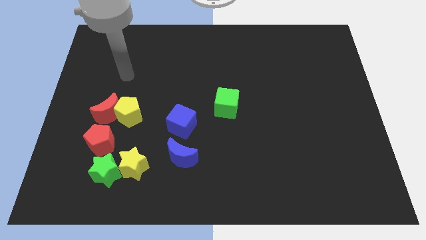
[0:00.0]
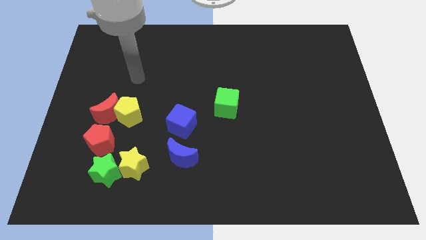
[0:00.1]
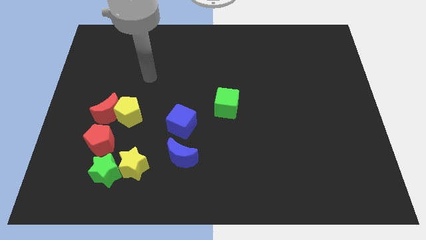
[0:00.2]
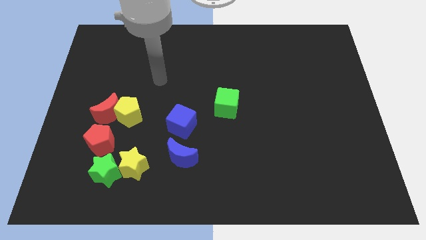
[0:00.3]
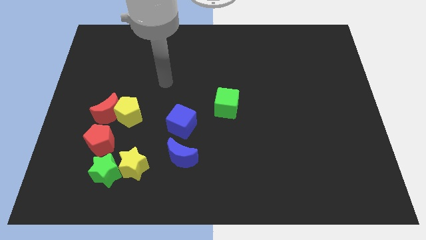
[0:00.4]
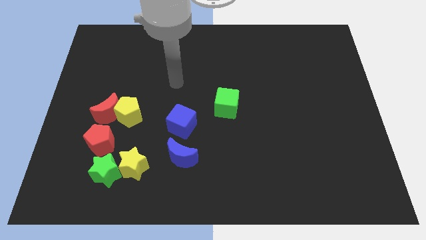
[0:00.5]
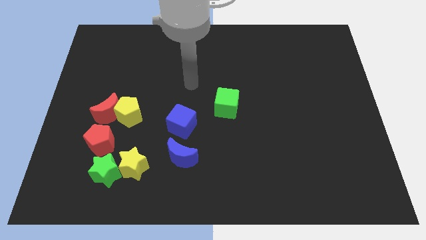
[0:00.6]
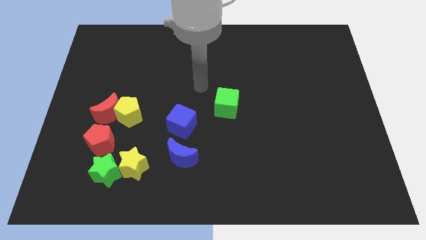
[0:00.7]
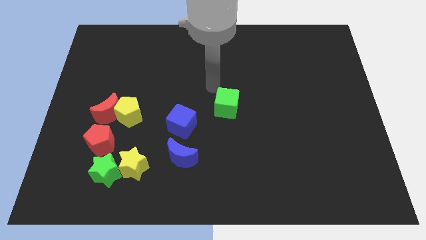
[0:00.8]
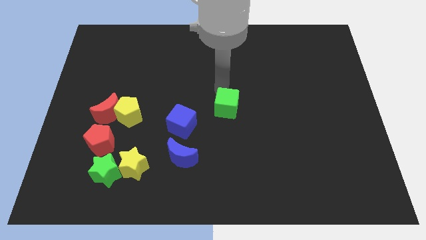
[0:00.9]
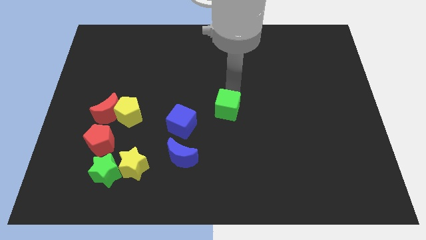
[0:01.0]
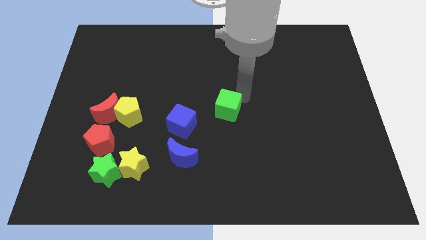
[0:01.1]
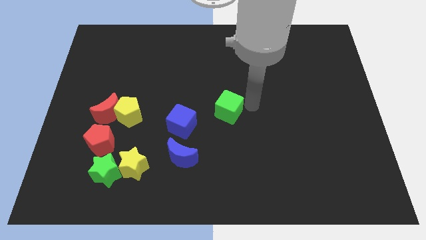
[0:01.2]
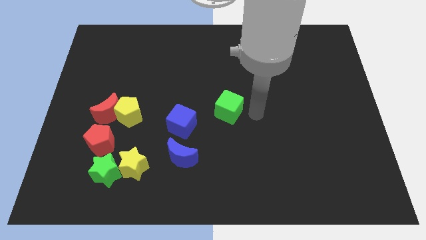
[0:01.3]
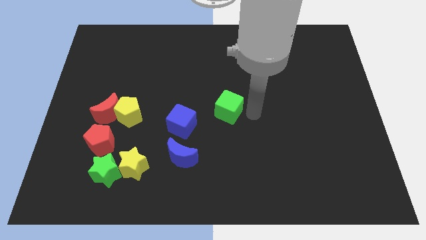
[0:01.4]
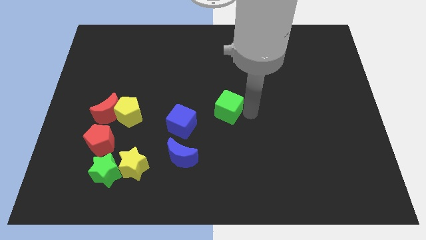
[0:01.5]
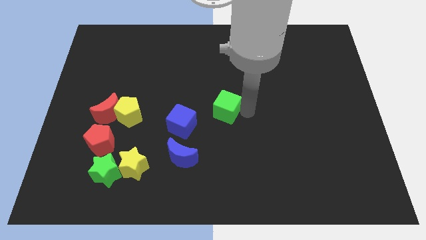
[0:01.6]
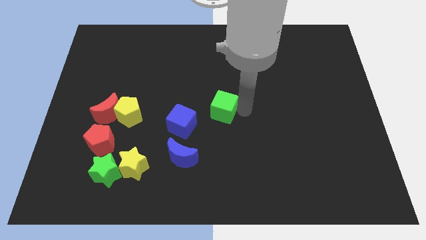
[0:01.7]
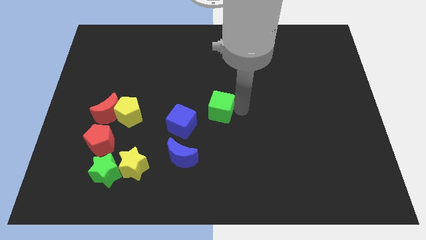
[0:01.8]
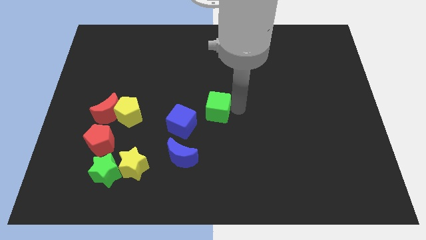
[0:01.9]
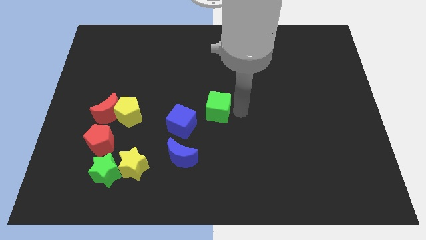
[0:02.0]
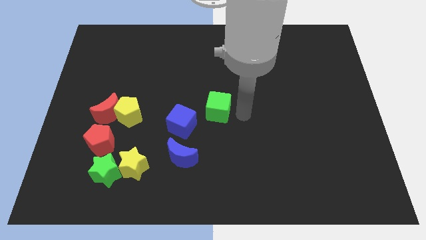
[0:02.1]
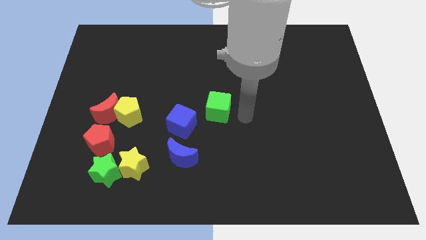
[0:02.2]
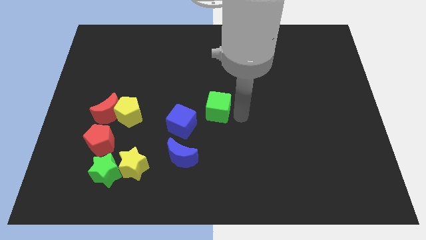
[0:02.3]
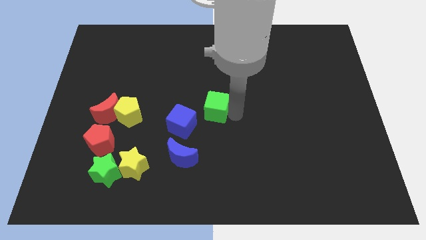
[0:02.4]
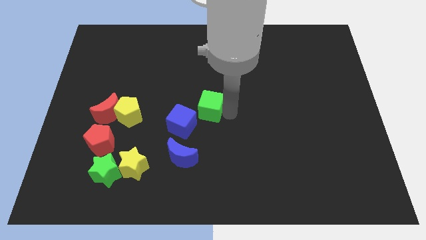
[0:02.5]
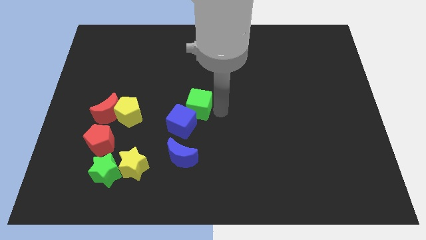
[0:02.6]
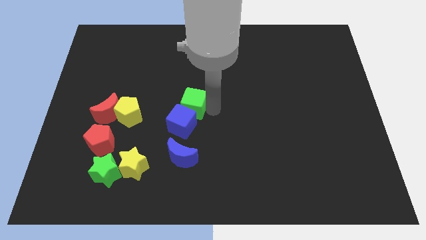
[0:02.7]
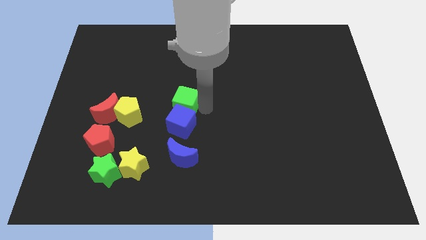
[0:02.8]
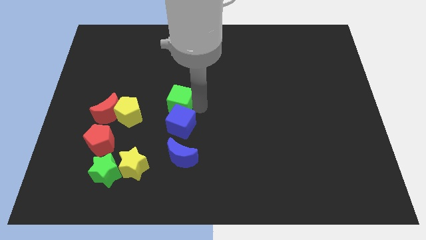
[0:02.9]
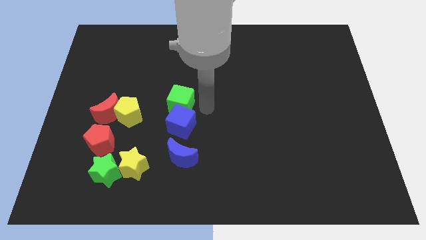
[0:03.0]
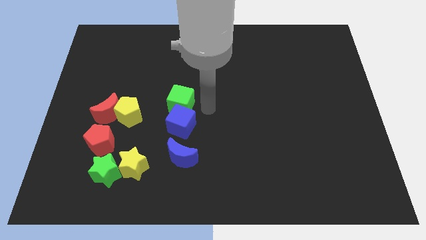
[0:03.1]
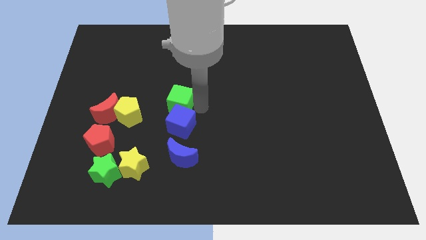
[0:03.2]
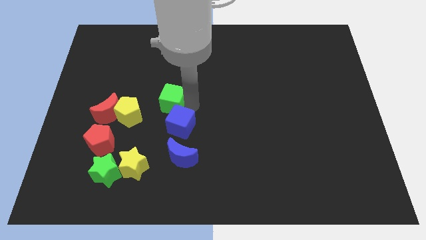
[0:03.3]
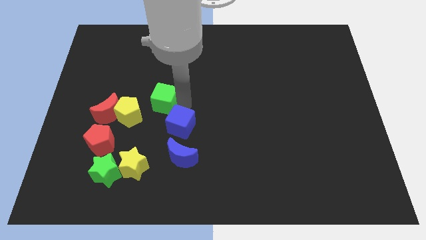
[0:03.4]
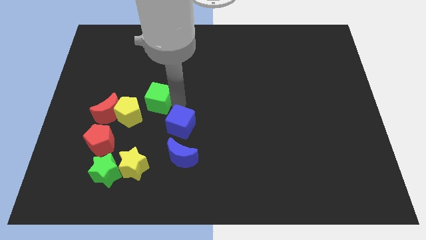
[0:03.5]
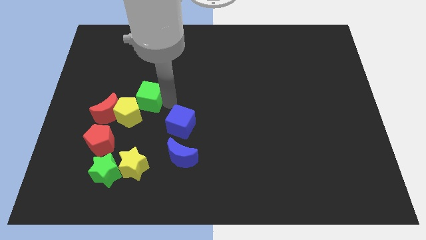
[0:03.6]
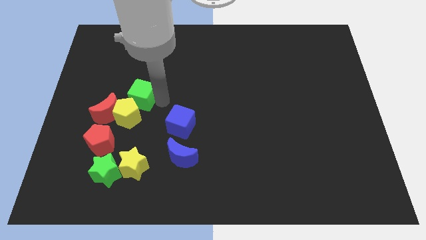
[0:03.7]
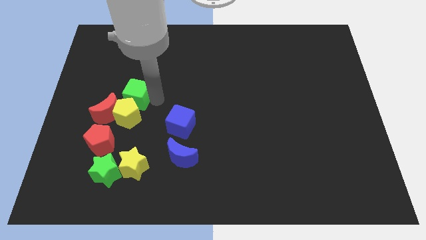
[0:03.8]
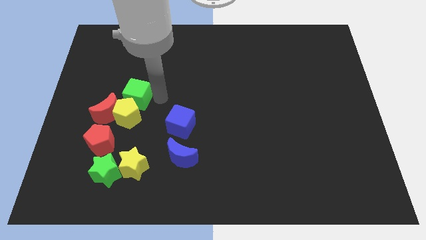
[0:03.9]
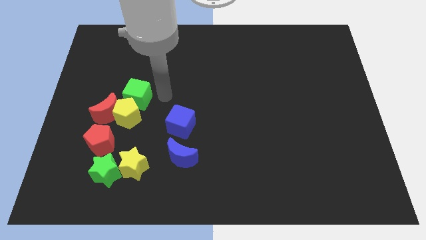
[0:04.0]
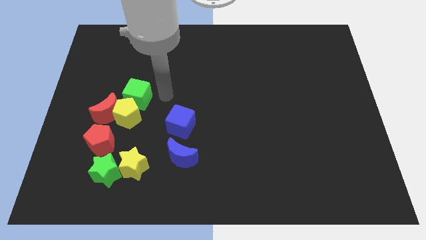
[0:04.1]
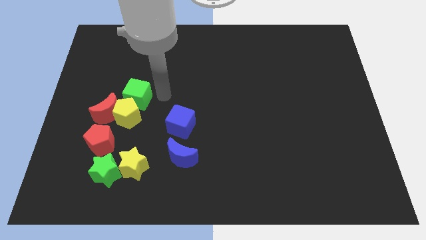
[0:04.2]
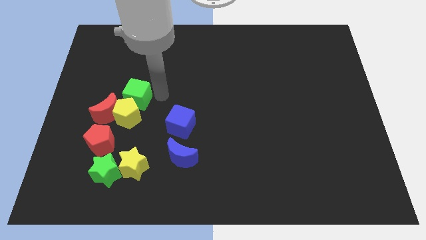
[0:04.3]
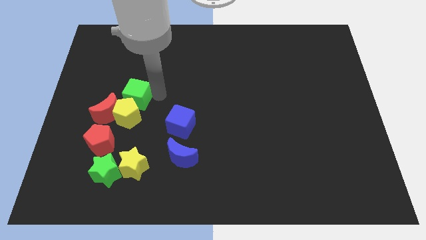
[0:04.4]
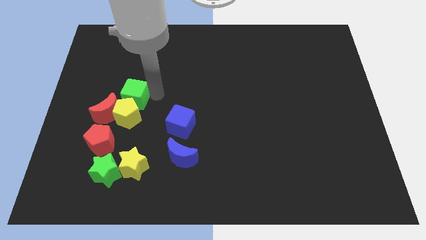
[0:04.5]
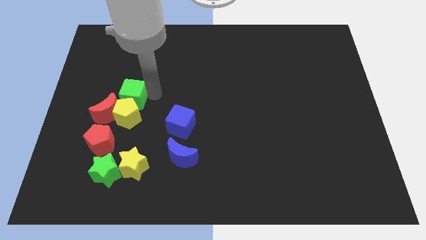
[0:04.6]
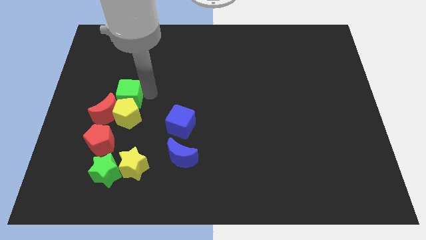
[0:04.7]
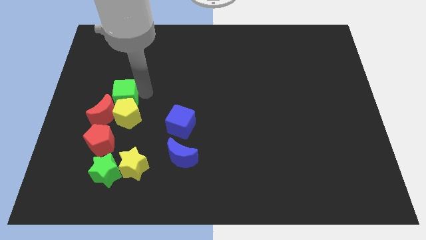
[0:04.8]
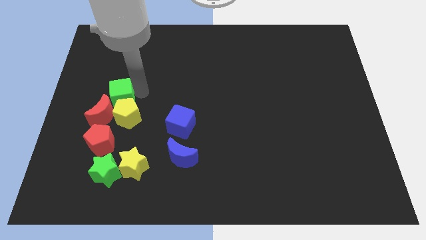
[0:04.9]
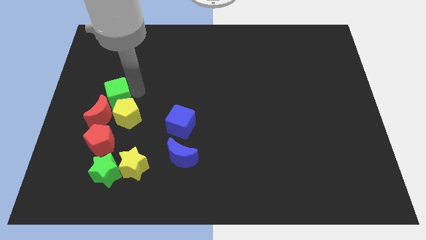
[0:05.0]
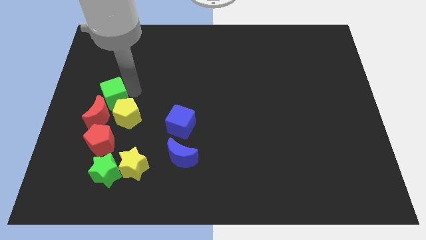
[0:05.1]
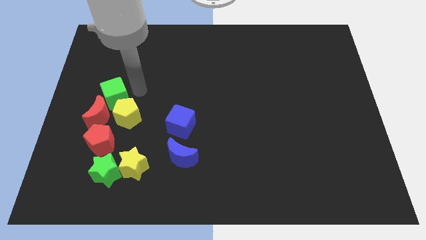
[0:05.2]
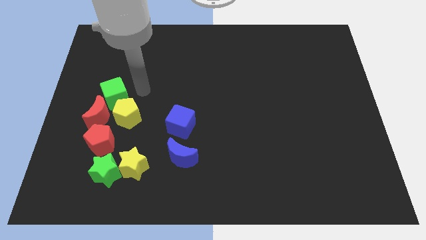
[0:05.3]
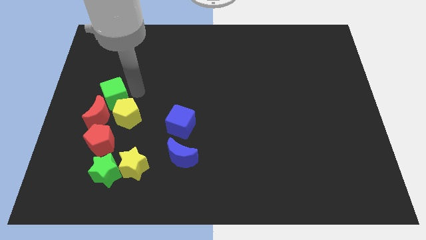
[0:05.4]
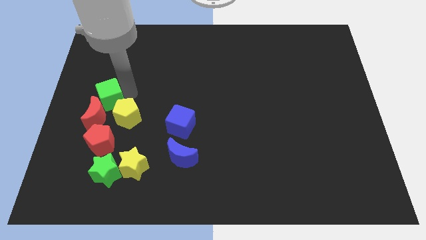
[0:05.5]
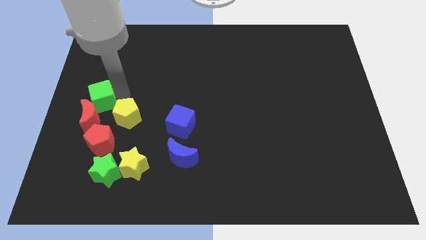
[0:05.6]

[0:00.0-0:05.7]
push the green cube to the left side

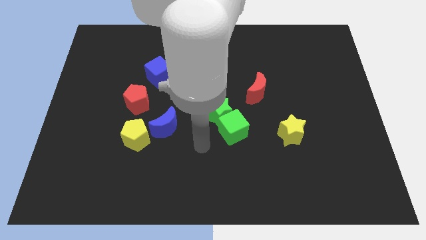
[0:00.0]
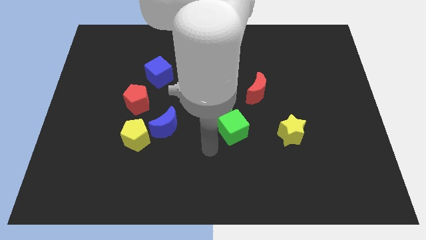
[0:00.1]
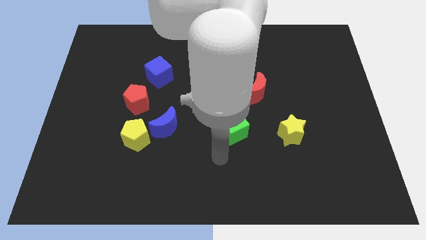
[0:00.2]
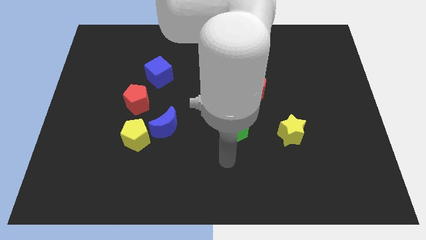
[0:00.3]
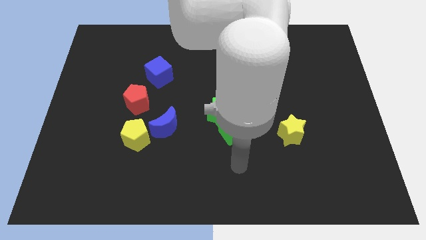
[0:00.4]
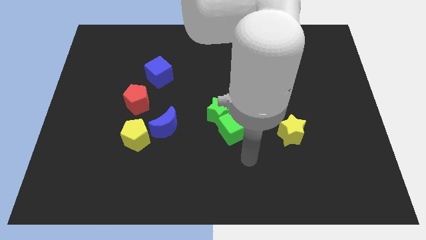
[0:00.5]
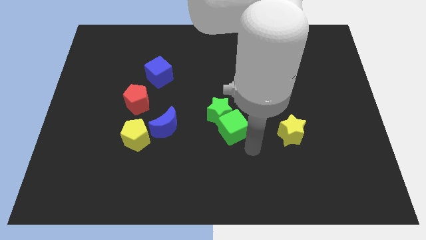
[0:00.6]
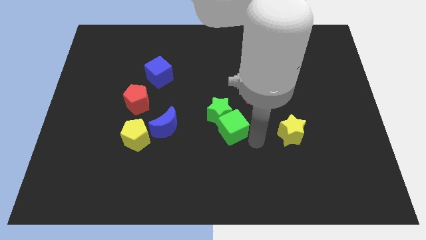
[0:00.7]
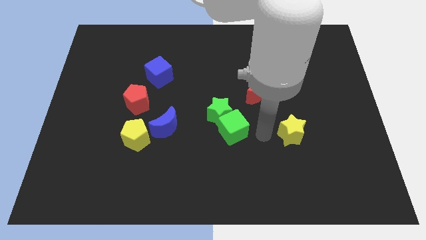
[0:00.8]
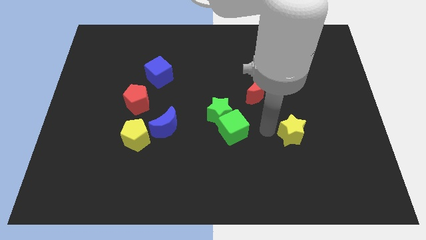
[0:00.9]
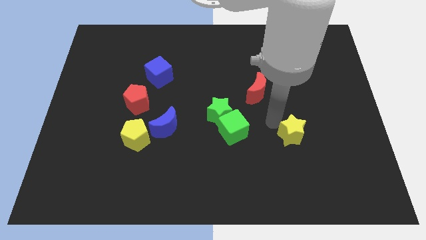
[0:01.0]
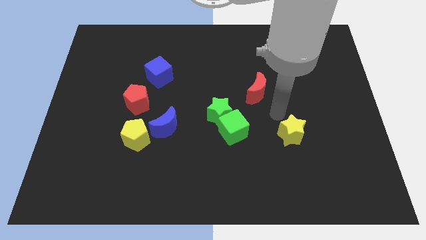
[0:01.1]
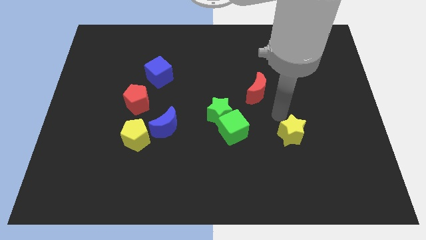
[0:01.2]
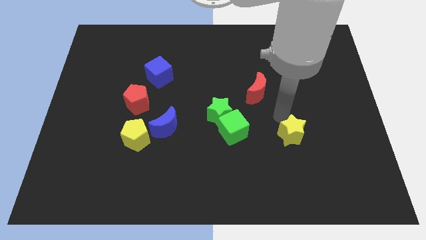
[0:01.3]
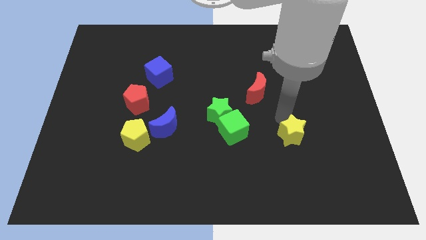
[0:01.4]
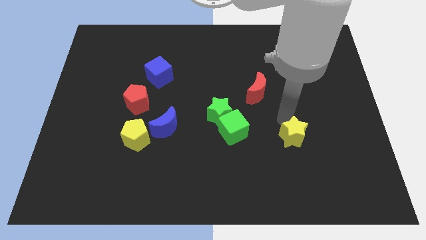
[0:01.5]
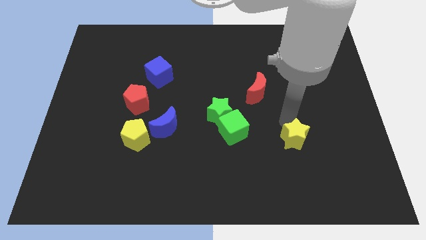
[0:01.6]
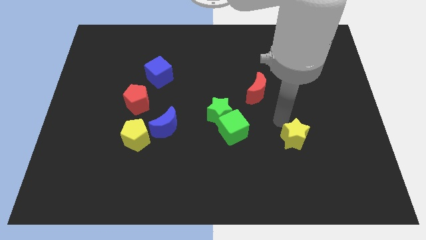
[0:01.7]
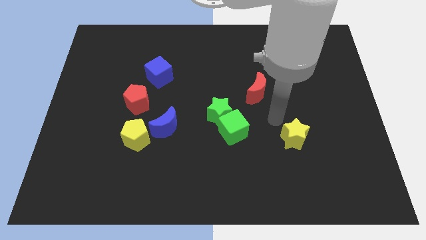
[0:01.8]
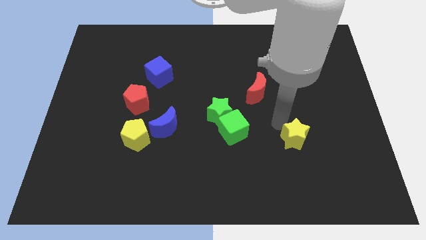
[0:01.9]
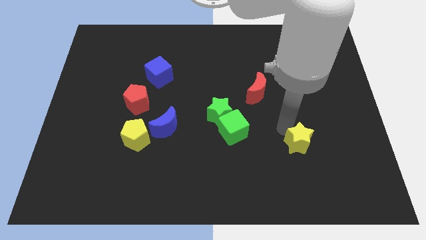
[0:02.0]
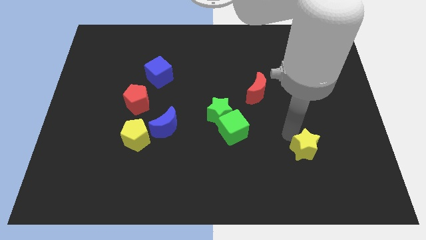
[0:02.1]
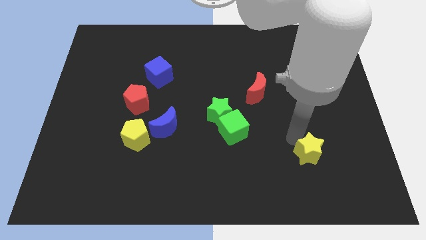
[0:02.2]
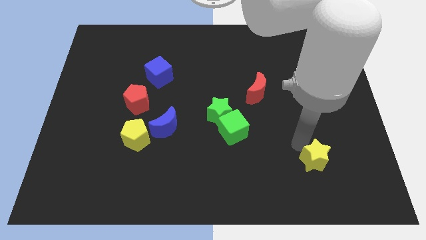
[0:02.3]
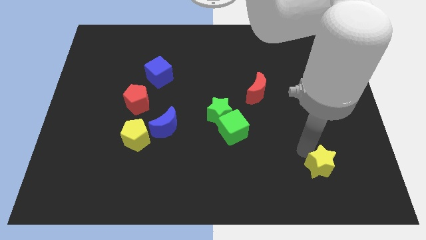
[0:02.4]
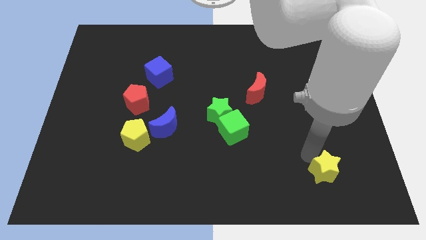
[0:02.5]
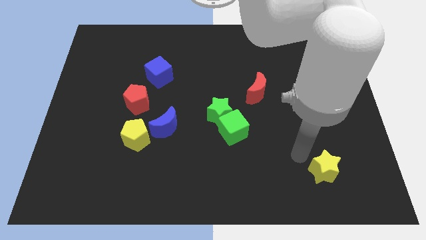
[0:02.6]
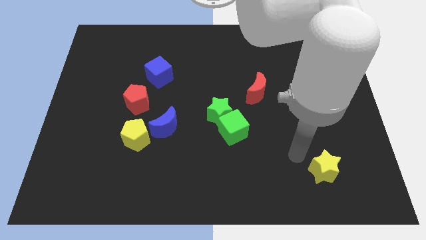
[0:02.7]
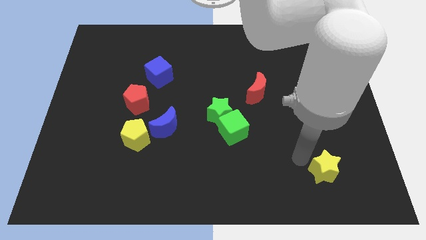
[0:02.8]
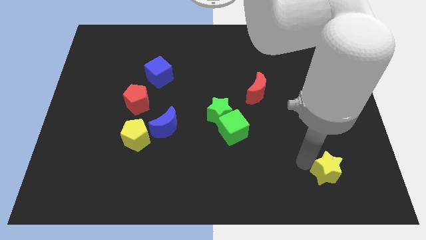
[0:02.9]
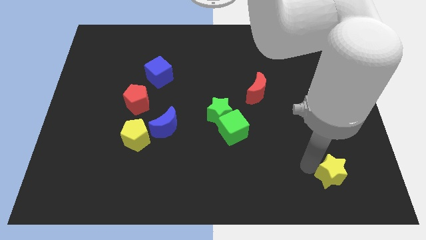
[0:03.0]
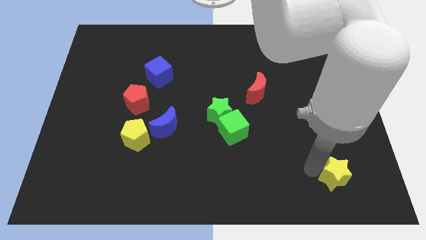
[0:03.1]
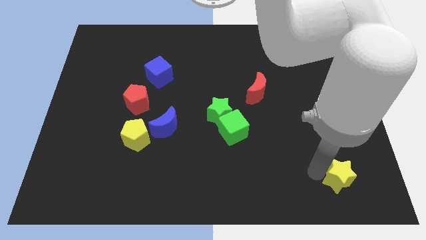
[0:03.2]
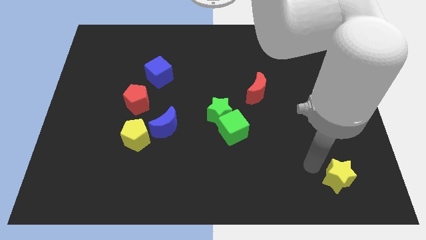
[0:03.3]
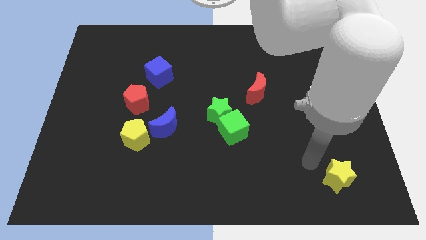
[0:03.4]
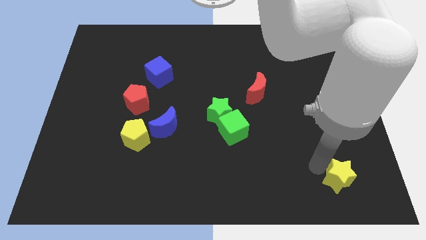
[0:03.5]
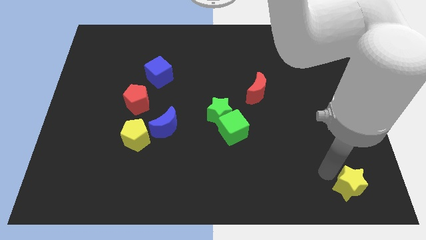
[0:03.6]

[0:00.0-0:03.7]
slide the yellow star to the bottom right corner
